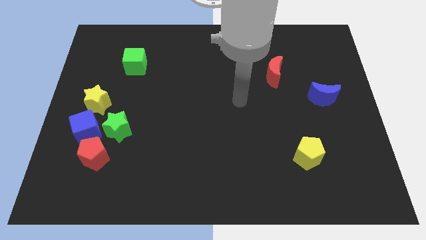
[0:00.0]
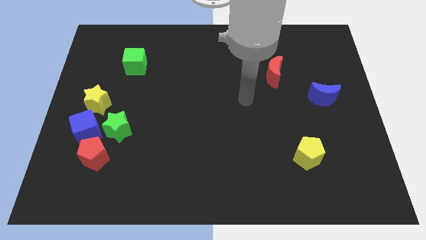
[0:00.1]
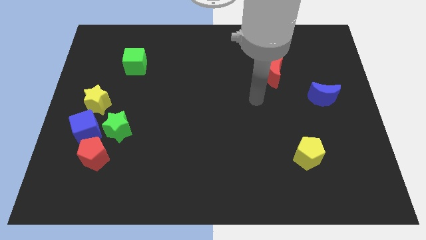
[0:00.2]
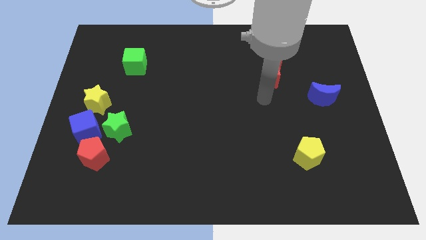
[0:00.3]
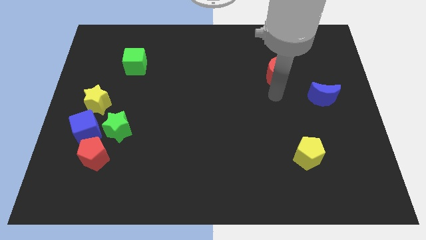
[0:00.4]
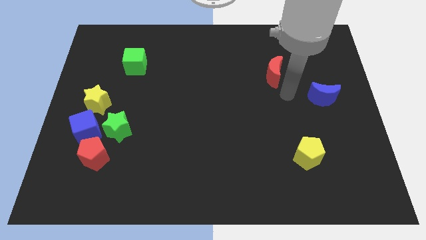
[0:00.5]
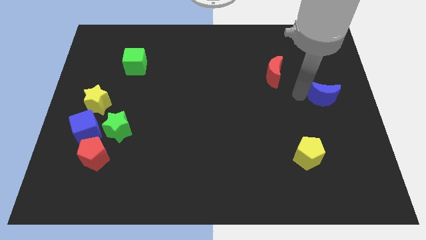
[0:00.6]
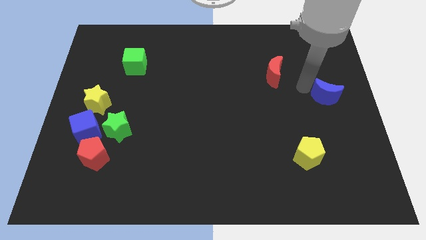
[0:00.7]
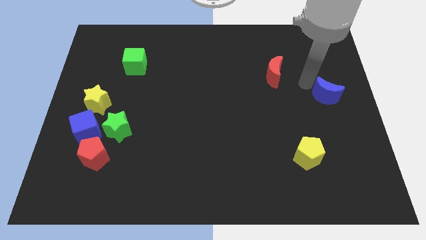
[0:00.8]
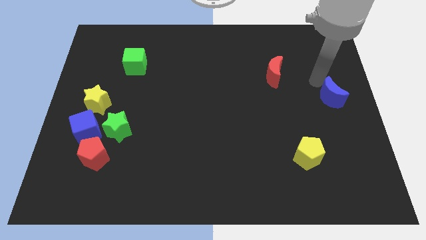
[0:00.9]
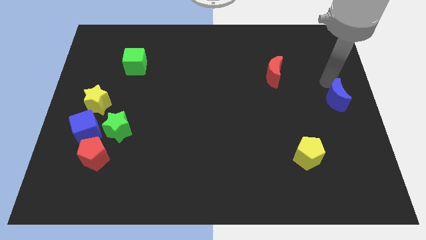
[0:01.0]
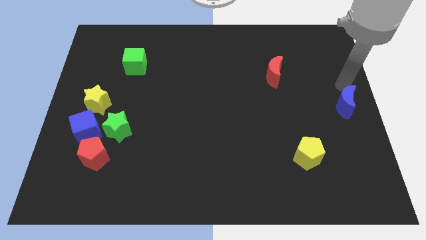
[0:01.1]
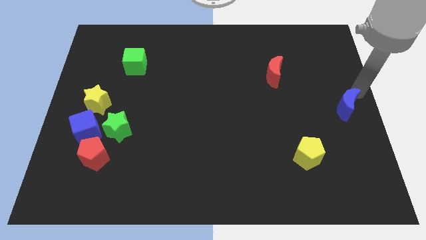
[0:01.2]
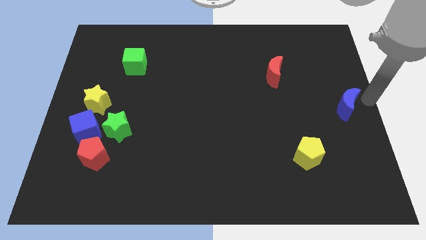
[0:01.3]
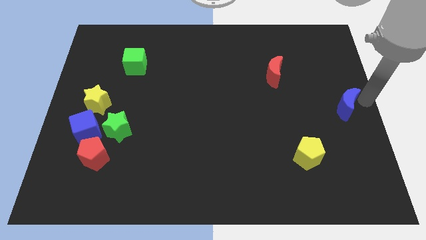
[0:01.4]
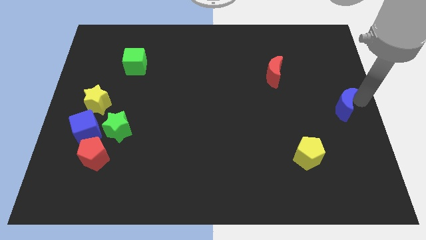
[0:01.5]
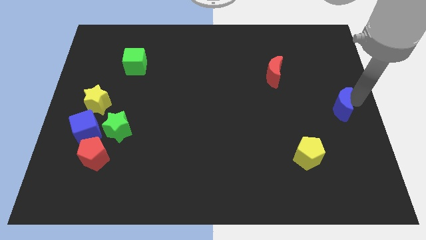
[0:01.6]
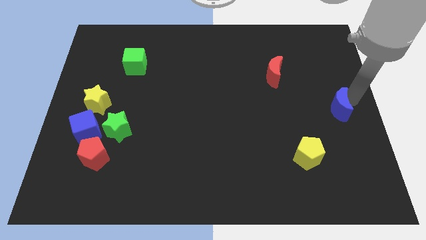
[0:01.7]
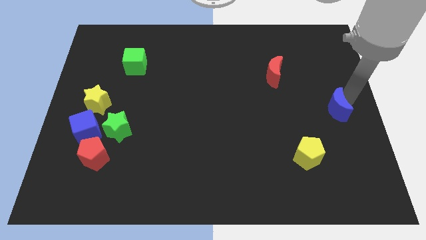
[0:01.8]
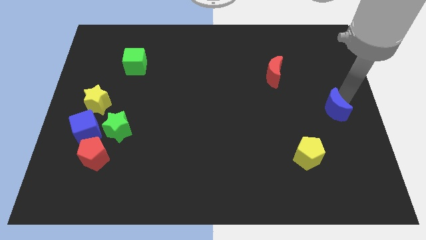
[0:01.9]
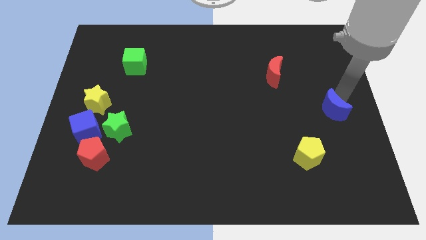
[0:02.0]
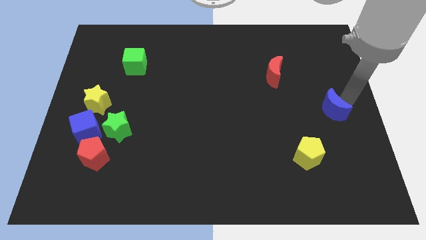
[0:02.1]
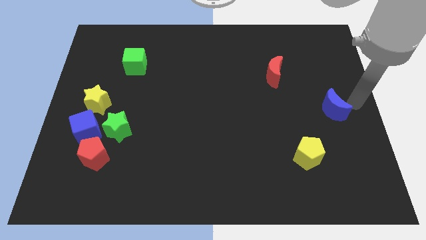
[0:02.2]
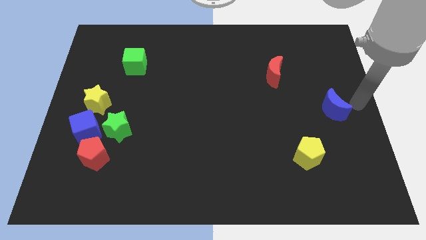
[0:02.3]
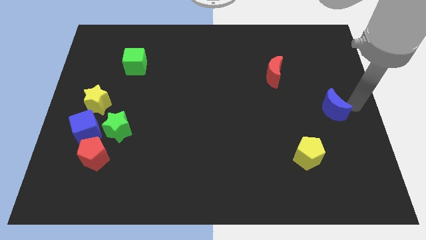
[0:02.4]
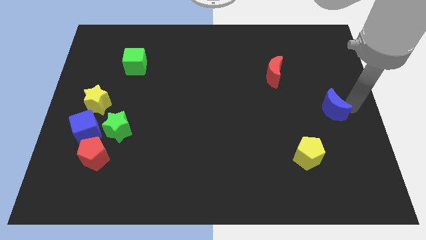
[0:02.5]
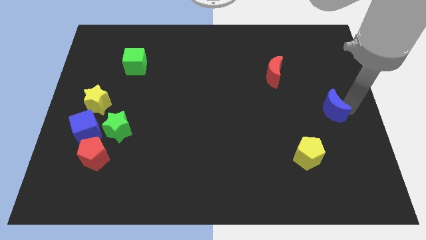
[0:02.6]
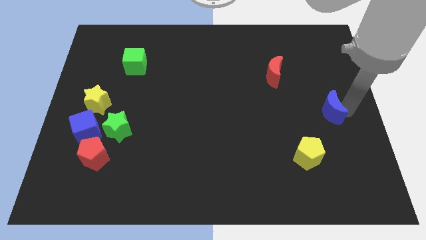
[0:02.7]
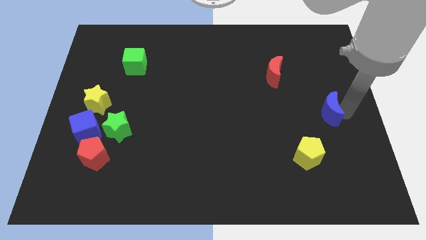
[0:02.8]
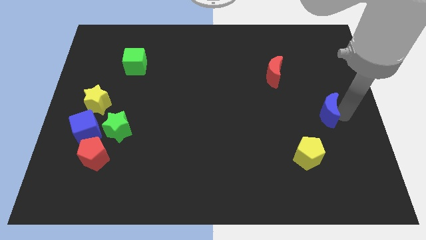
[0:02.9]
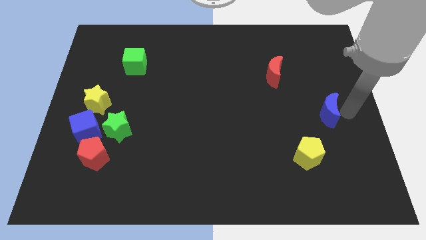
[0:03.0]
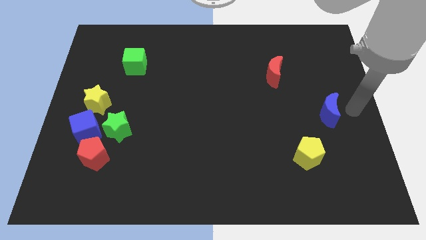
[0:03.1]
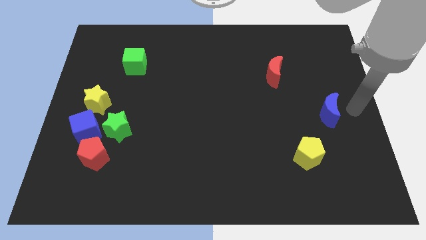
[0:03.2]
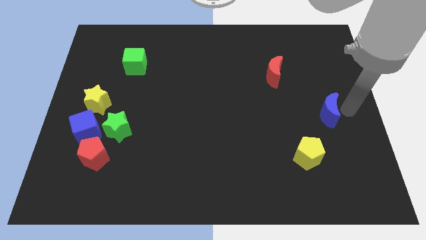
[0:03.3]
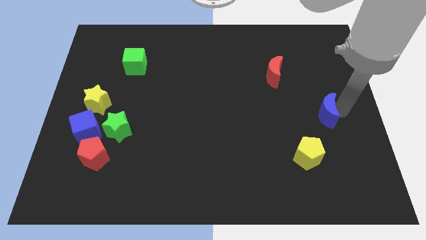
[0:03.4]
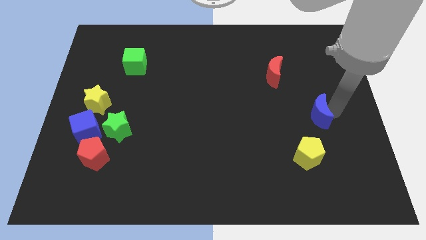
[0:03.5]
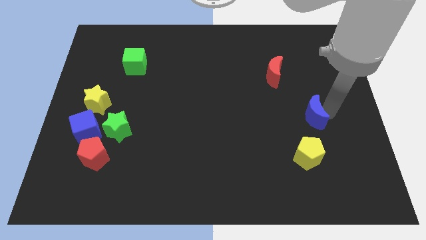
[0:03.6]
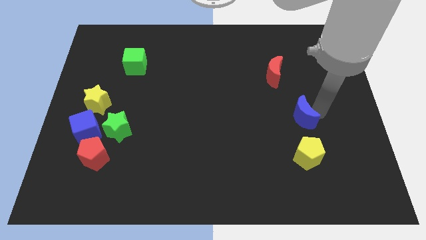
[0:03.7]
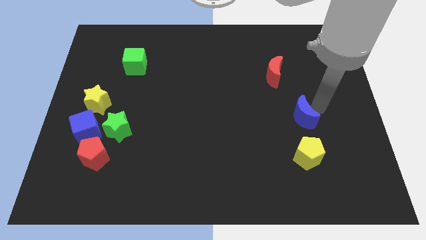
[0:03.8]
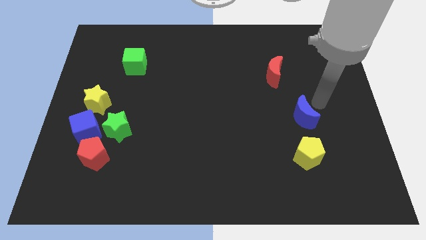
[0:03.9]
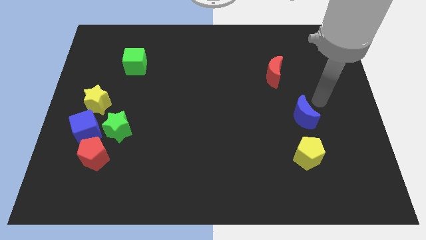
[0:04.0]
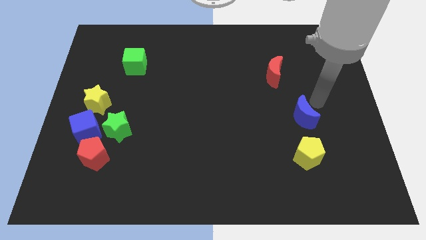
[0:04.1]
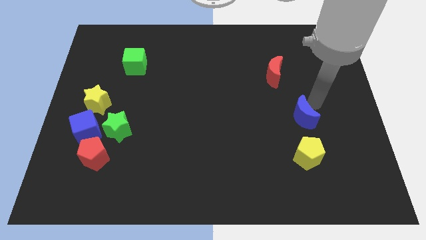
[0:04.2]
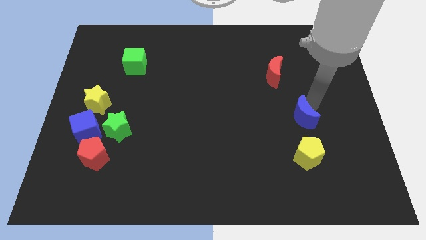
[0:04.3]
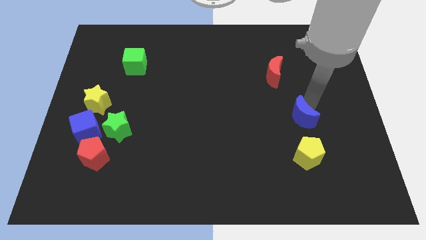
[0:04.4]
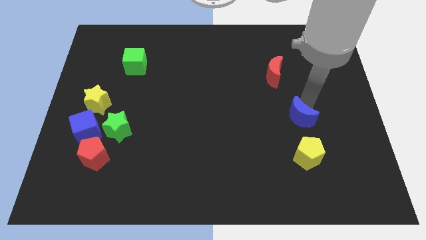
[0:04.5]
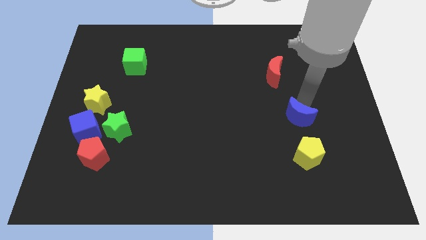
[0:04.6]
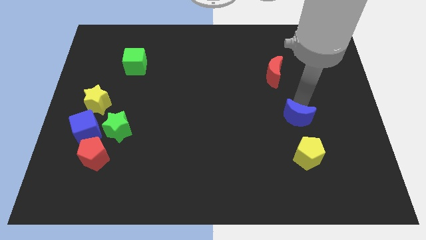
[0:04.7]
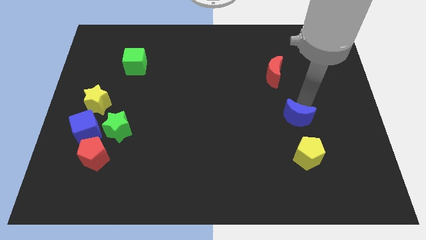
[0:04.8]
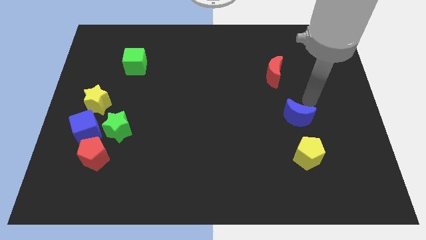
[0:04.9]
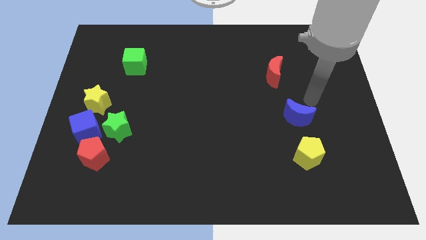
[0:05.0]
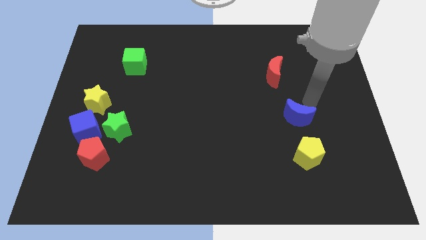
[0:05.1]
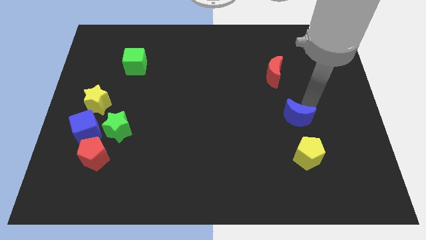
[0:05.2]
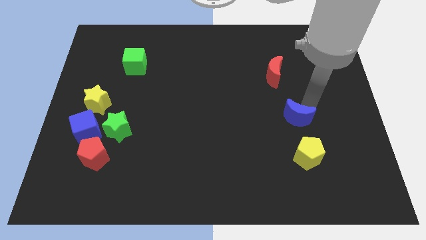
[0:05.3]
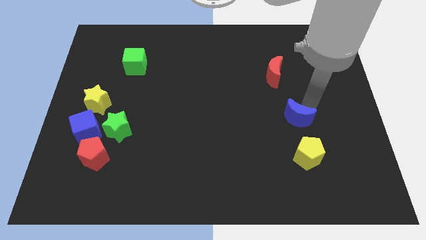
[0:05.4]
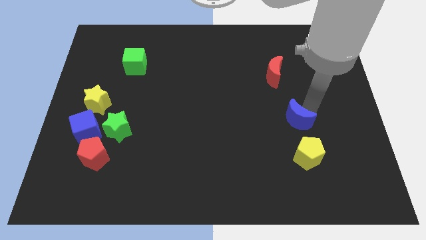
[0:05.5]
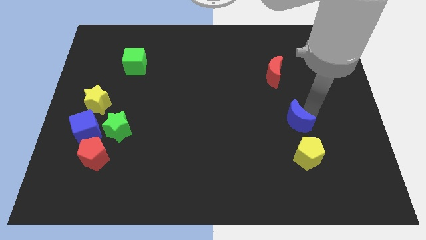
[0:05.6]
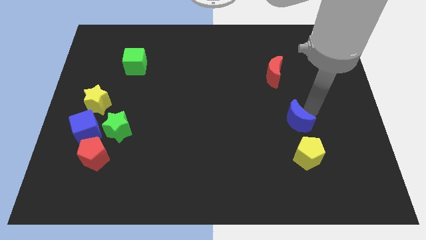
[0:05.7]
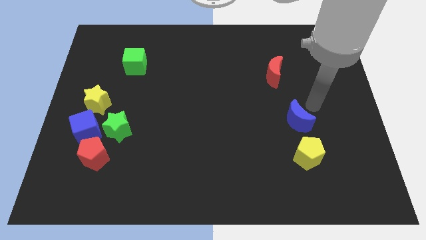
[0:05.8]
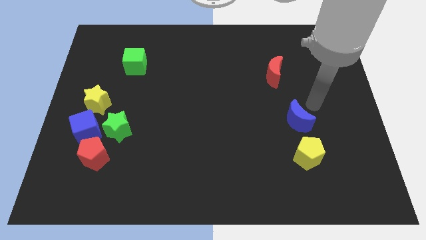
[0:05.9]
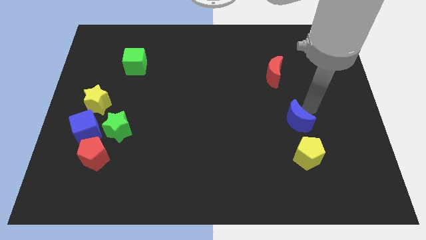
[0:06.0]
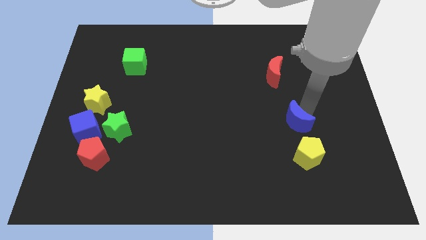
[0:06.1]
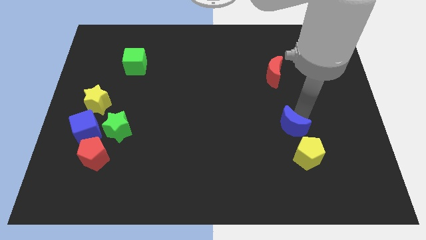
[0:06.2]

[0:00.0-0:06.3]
move the blue moon diagonally up and to the left of the yellow pentagon
